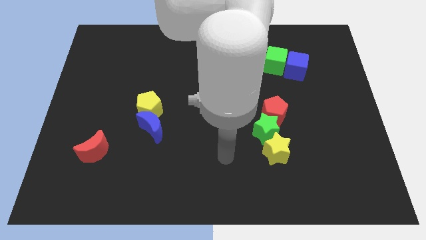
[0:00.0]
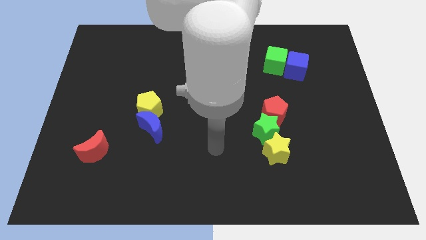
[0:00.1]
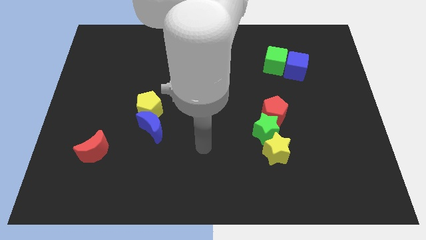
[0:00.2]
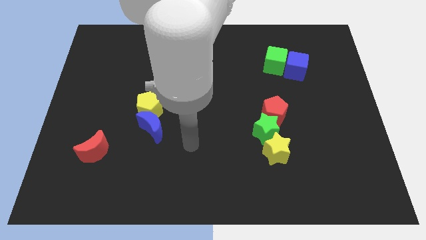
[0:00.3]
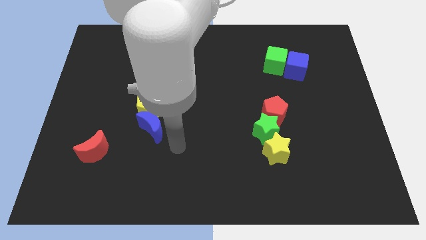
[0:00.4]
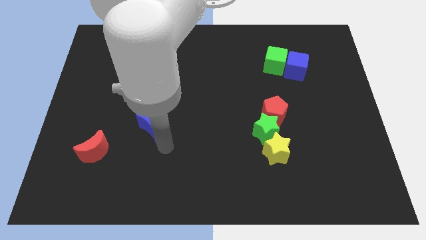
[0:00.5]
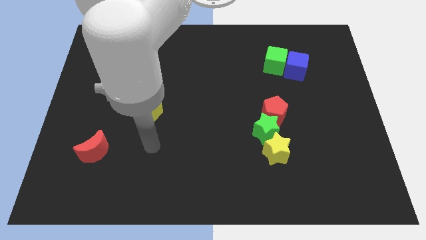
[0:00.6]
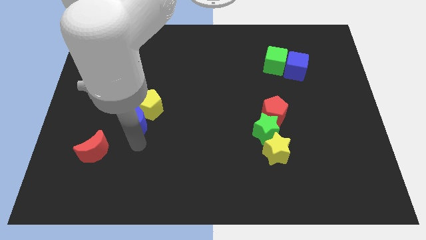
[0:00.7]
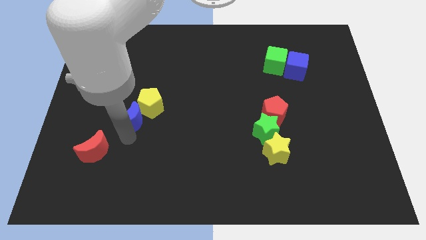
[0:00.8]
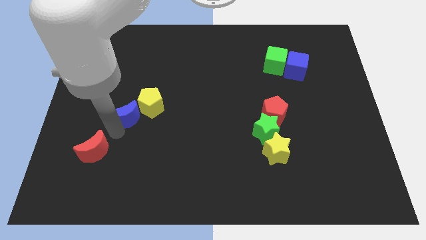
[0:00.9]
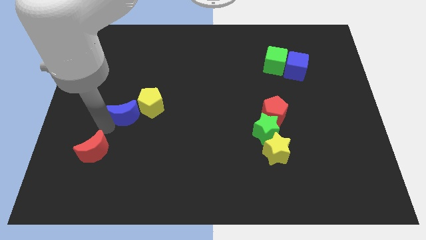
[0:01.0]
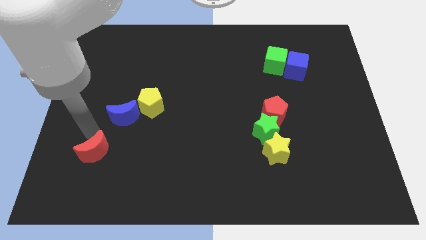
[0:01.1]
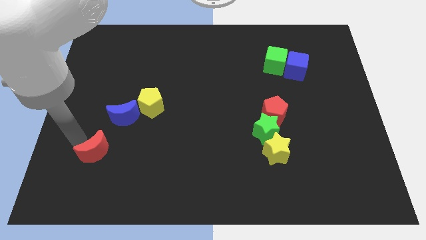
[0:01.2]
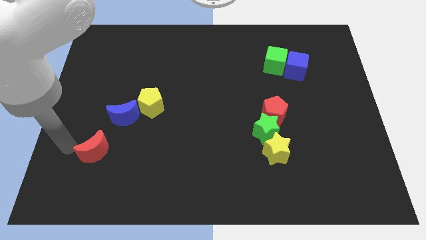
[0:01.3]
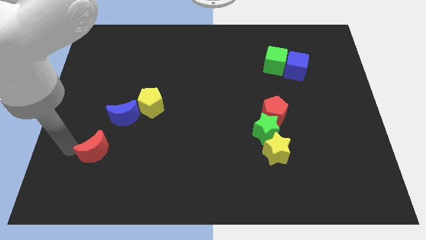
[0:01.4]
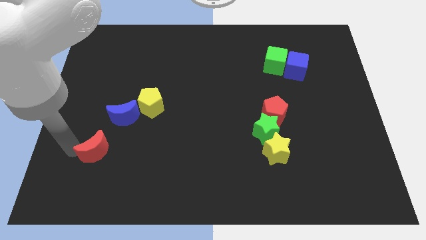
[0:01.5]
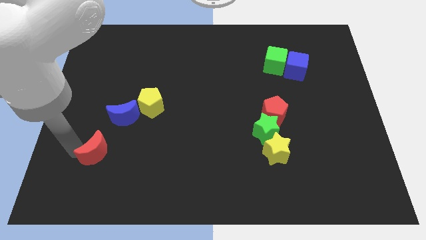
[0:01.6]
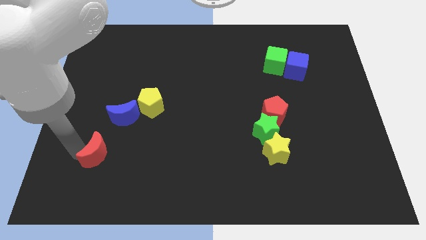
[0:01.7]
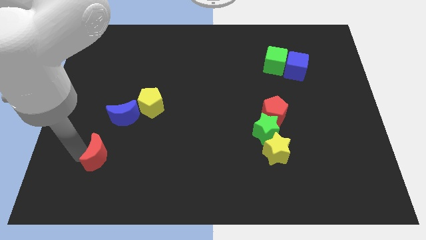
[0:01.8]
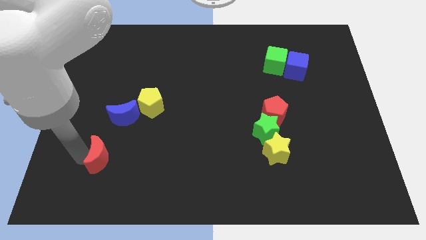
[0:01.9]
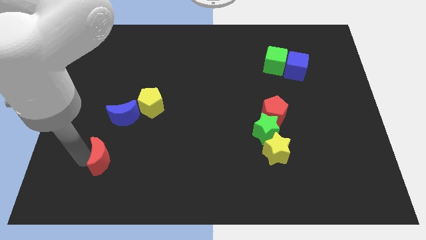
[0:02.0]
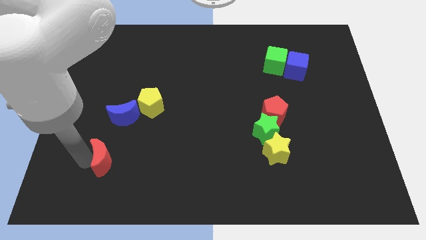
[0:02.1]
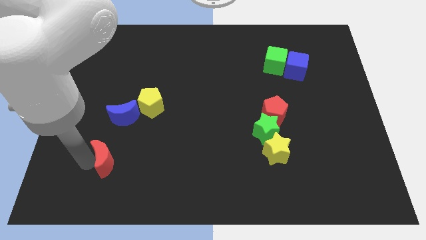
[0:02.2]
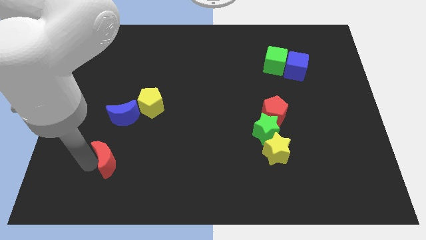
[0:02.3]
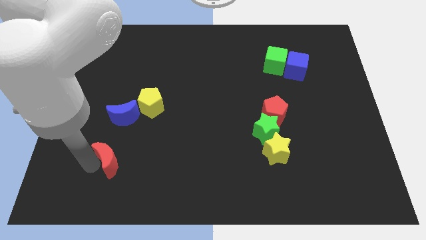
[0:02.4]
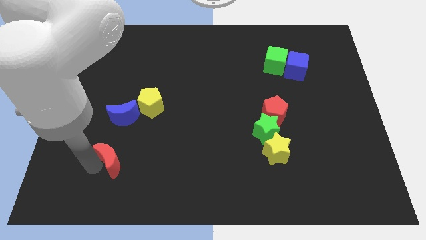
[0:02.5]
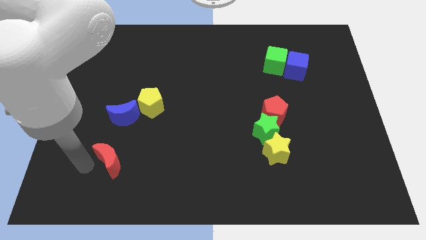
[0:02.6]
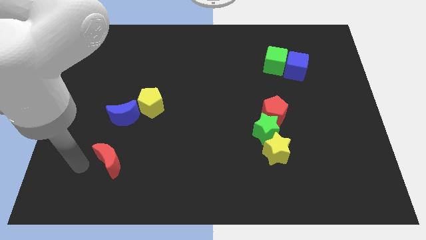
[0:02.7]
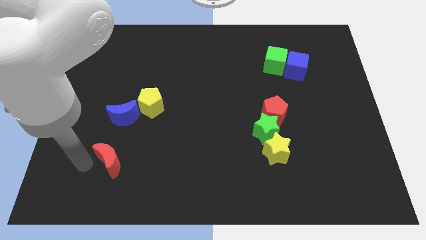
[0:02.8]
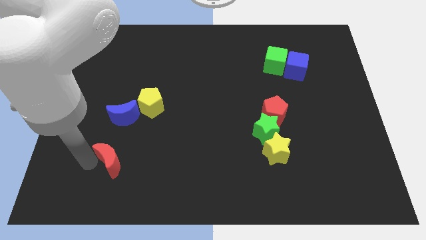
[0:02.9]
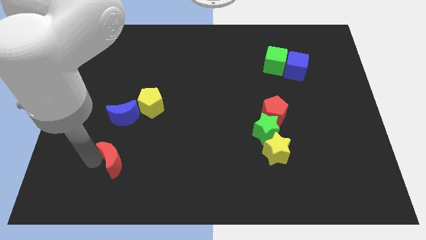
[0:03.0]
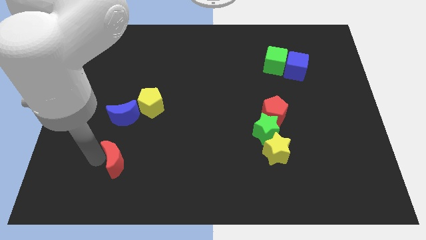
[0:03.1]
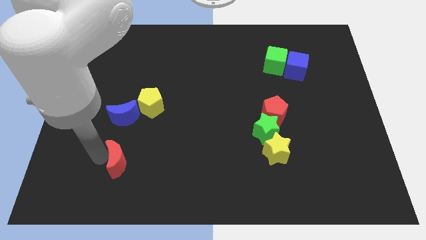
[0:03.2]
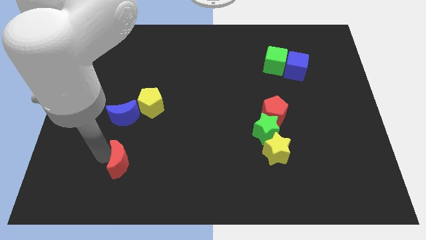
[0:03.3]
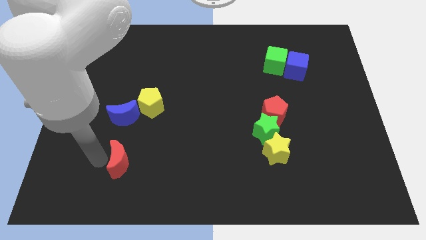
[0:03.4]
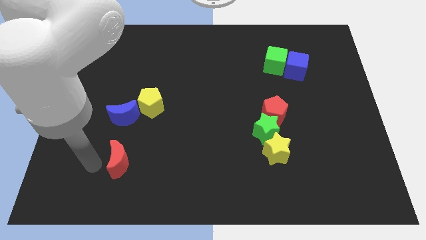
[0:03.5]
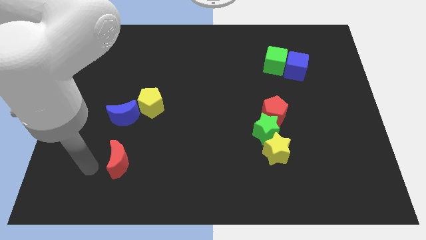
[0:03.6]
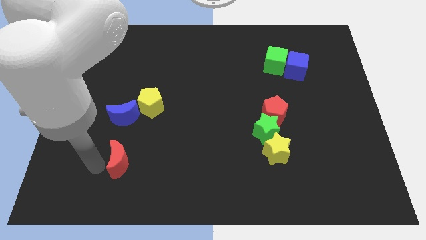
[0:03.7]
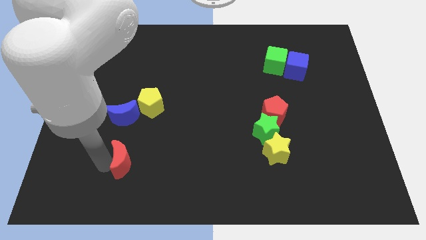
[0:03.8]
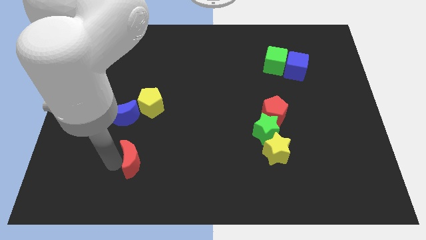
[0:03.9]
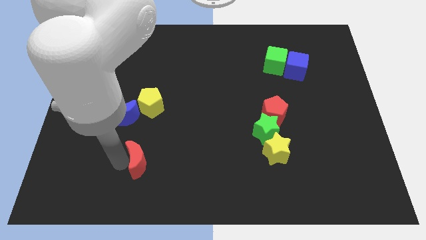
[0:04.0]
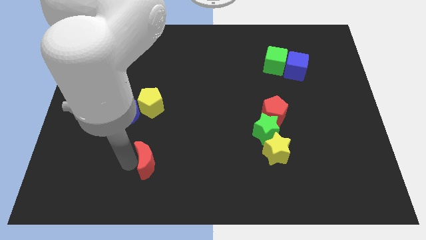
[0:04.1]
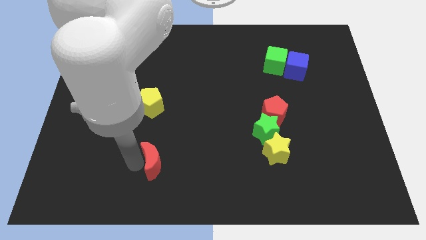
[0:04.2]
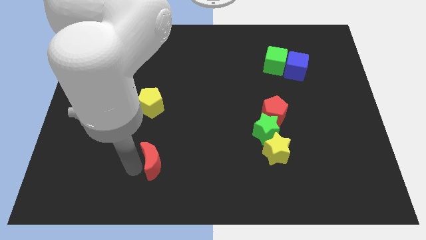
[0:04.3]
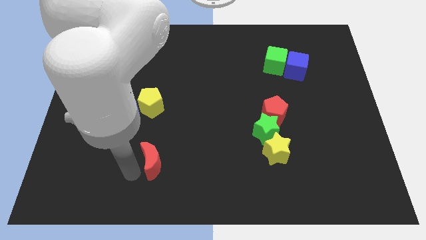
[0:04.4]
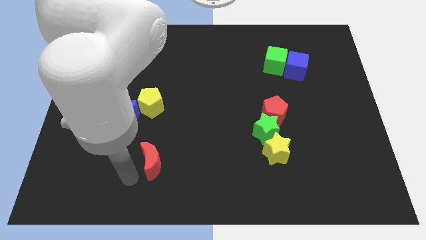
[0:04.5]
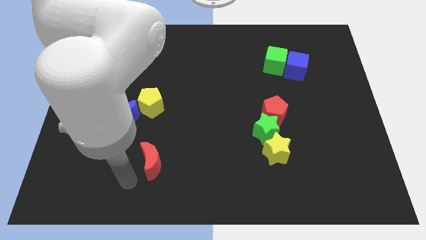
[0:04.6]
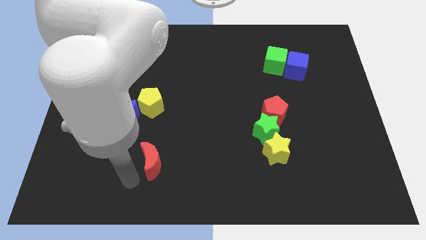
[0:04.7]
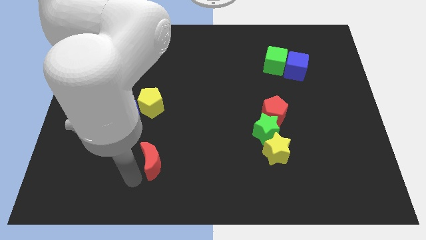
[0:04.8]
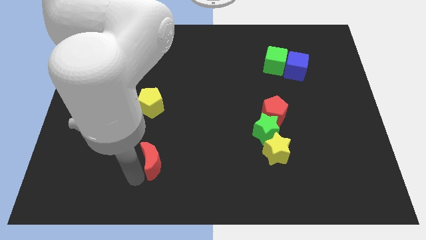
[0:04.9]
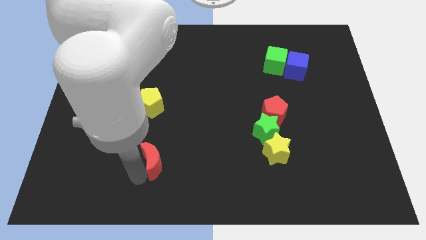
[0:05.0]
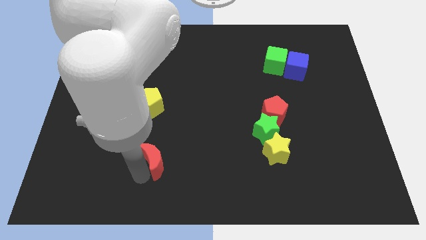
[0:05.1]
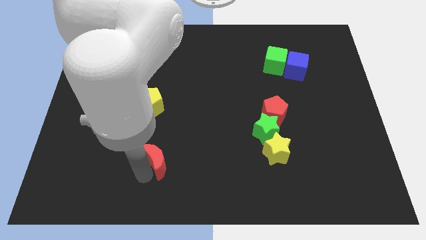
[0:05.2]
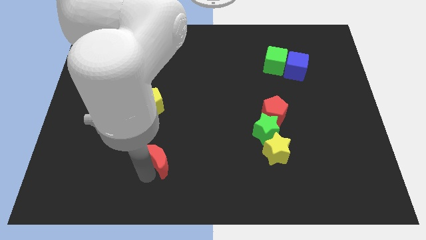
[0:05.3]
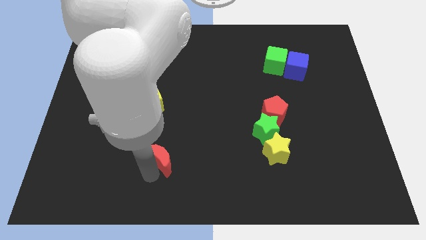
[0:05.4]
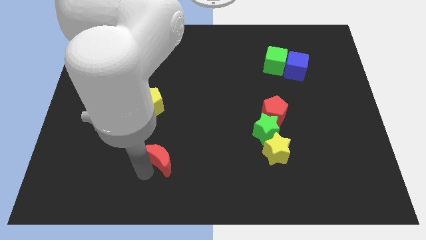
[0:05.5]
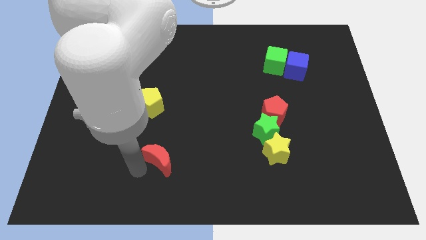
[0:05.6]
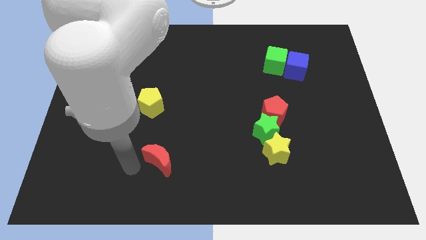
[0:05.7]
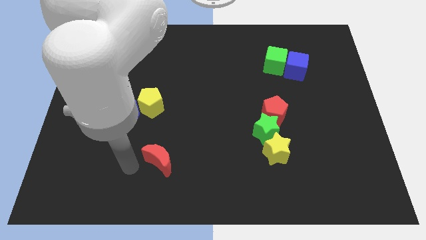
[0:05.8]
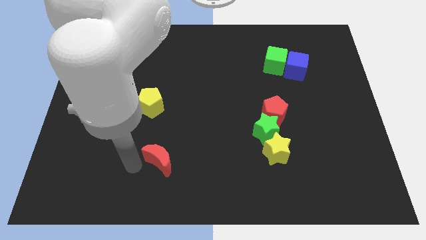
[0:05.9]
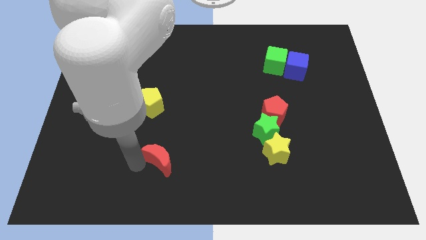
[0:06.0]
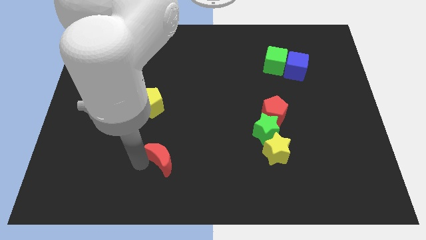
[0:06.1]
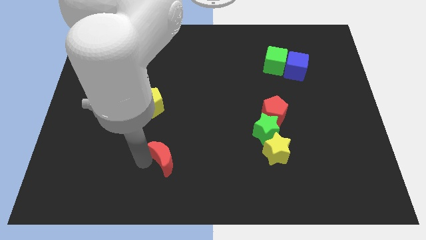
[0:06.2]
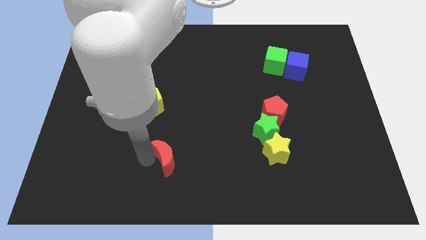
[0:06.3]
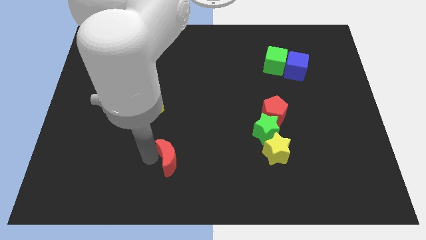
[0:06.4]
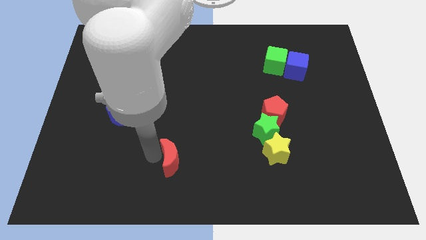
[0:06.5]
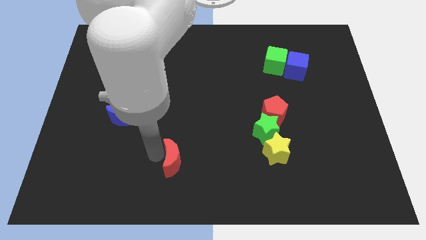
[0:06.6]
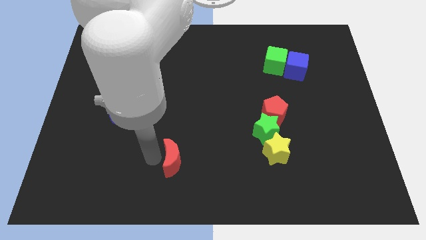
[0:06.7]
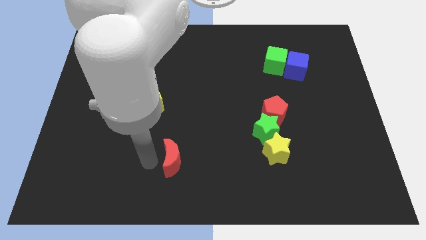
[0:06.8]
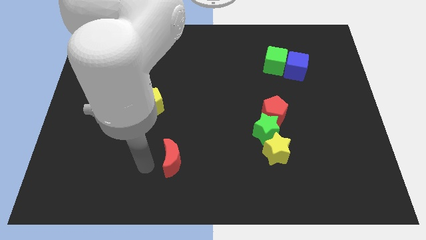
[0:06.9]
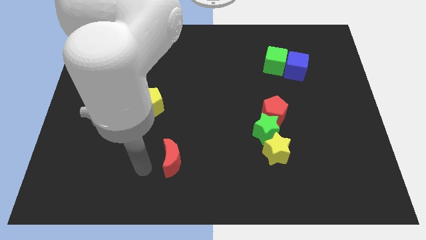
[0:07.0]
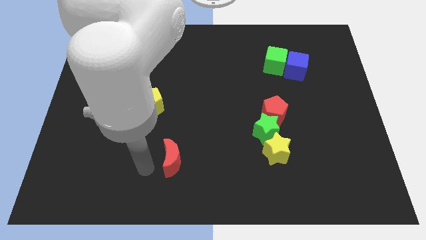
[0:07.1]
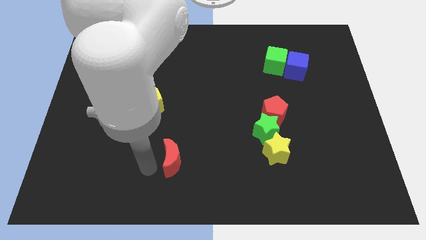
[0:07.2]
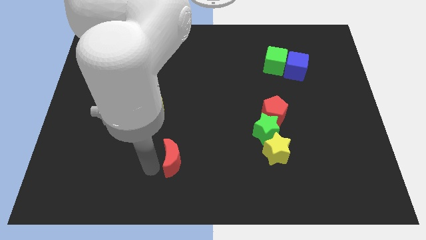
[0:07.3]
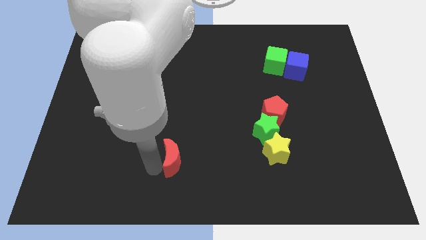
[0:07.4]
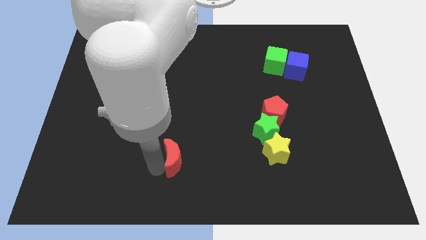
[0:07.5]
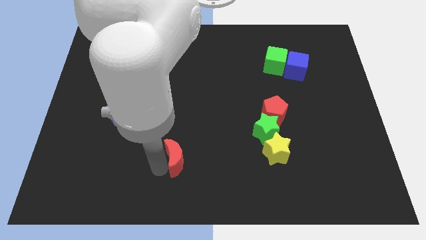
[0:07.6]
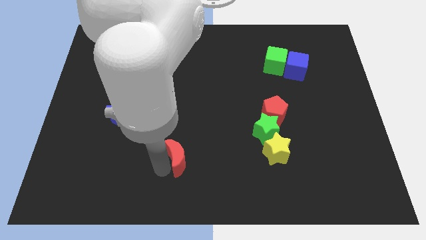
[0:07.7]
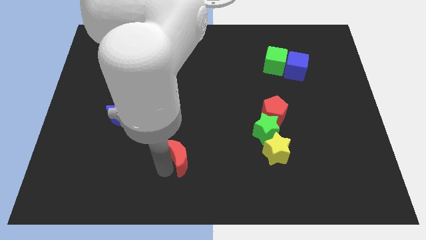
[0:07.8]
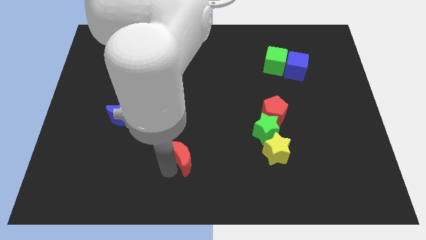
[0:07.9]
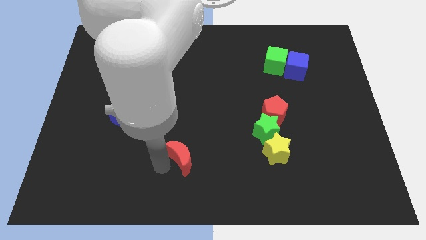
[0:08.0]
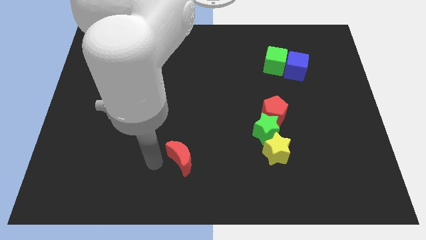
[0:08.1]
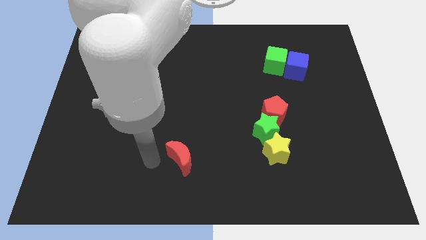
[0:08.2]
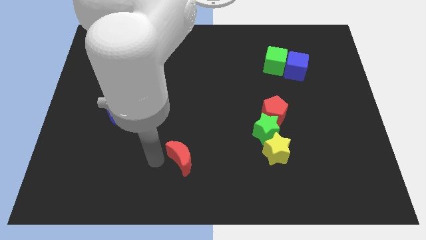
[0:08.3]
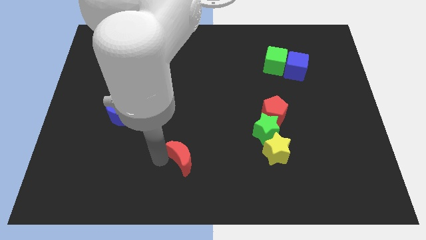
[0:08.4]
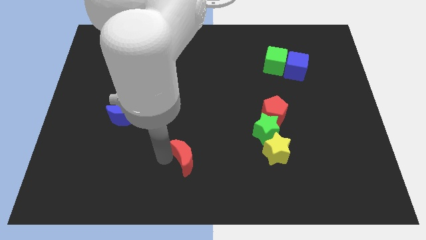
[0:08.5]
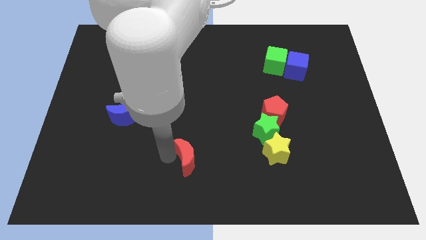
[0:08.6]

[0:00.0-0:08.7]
move the red moon right
